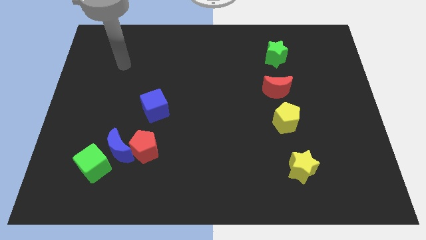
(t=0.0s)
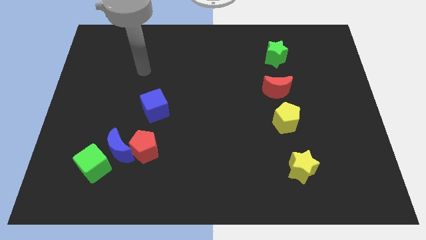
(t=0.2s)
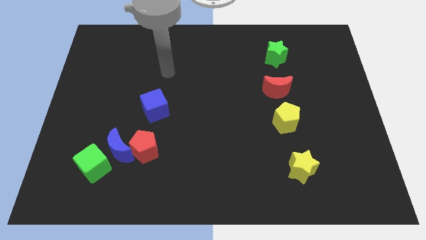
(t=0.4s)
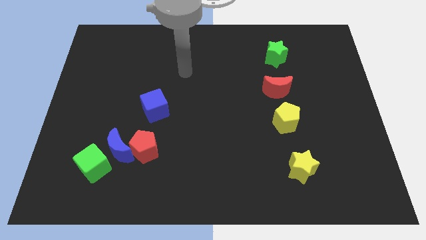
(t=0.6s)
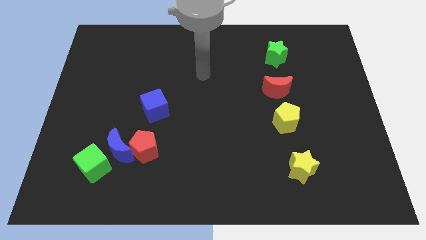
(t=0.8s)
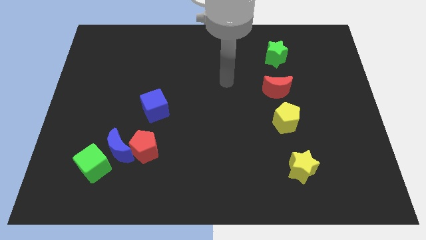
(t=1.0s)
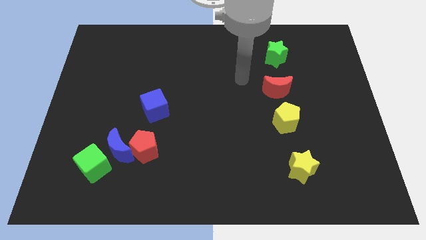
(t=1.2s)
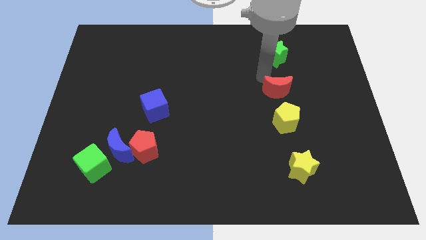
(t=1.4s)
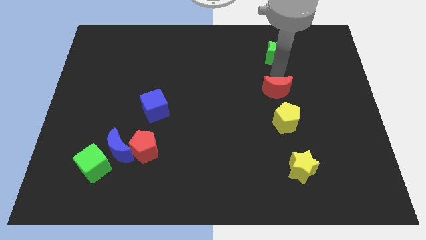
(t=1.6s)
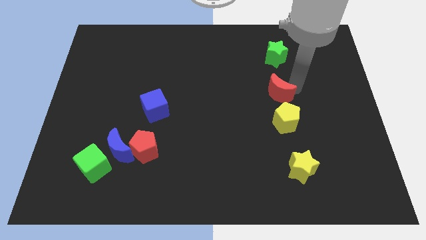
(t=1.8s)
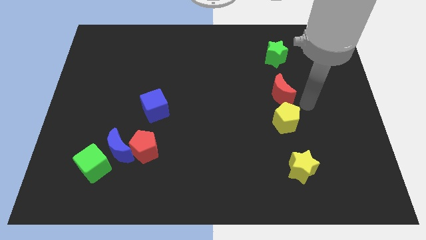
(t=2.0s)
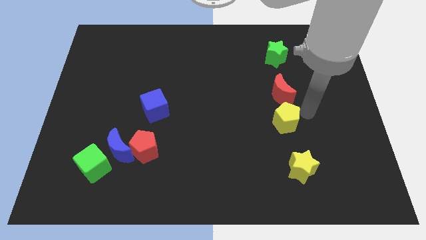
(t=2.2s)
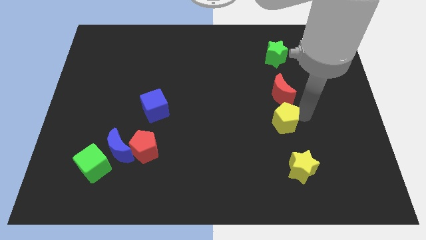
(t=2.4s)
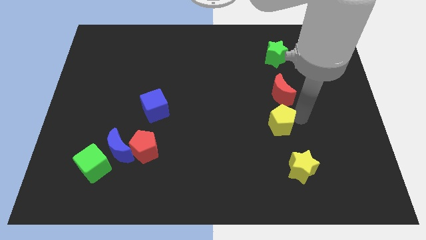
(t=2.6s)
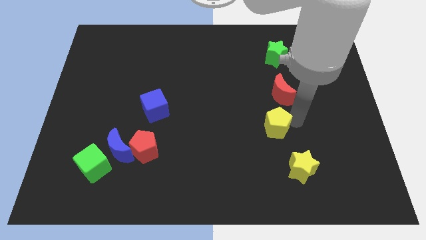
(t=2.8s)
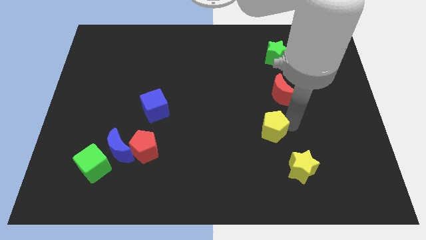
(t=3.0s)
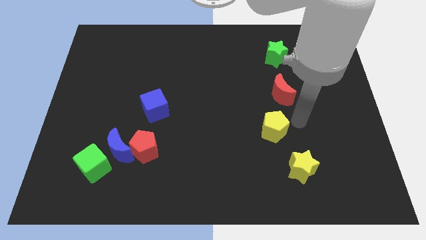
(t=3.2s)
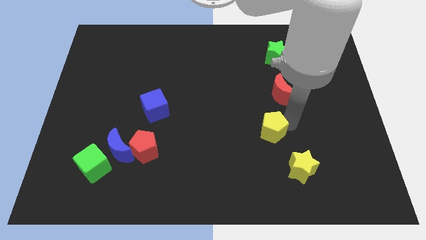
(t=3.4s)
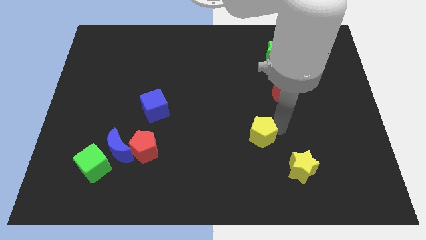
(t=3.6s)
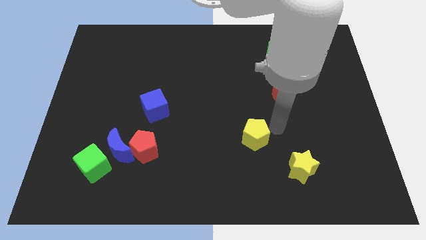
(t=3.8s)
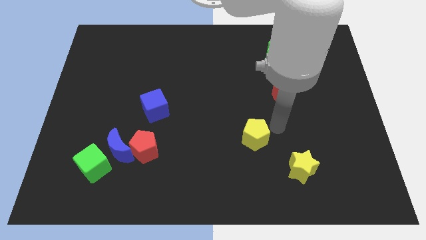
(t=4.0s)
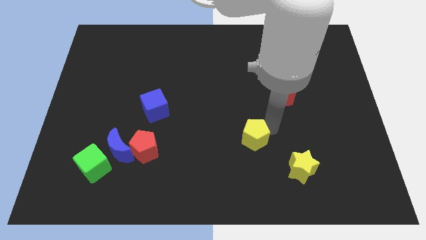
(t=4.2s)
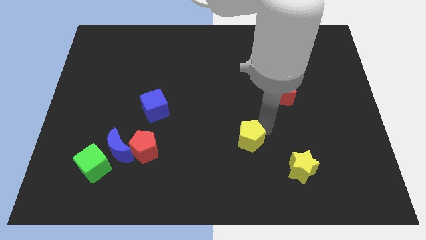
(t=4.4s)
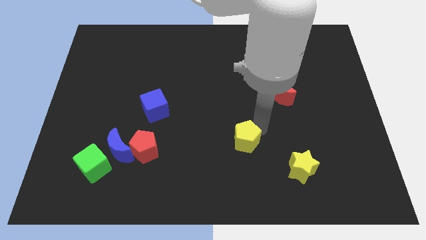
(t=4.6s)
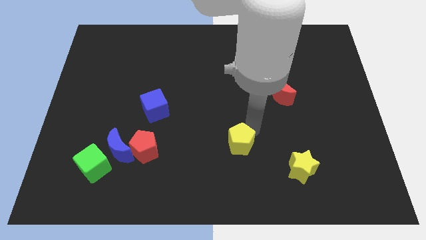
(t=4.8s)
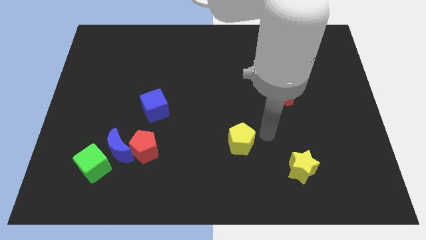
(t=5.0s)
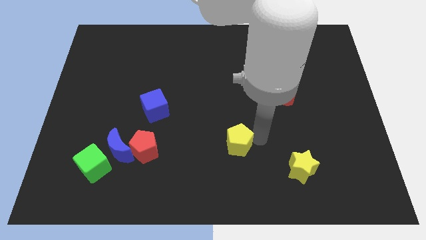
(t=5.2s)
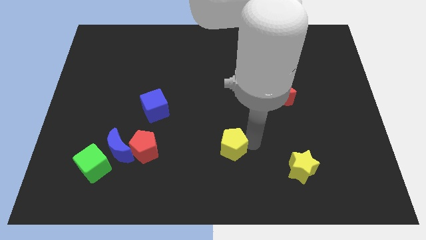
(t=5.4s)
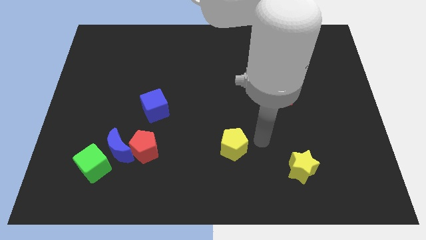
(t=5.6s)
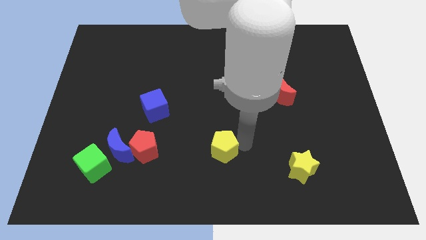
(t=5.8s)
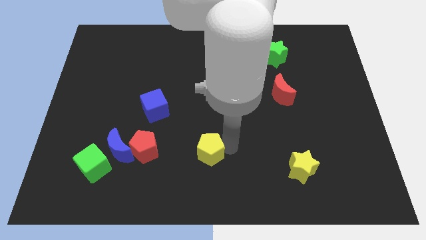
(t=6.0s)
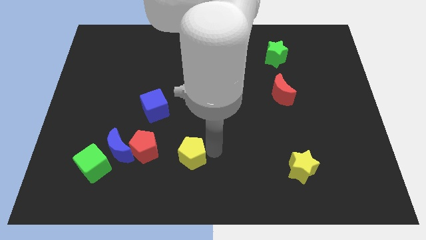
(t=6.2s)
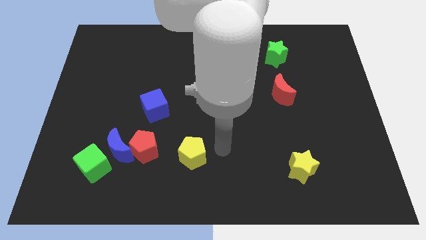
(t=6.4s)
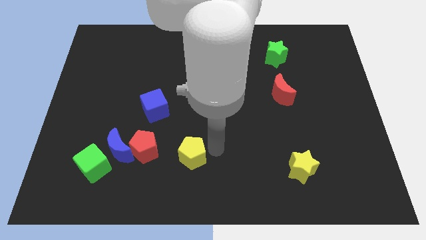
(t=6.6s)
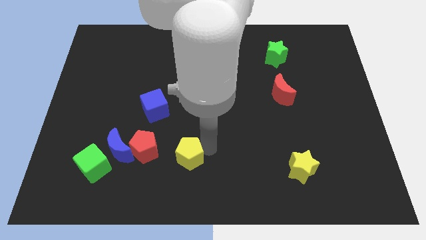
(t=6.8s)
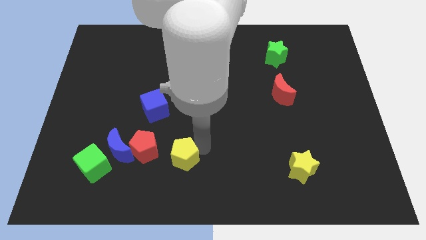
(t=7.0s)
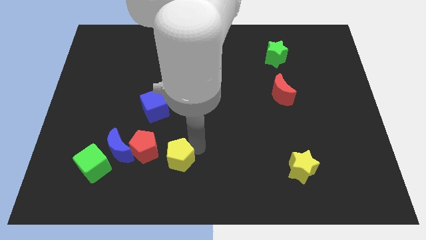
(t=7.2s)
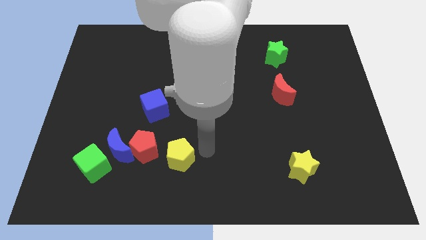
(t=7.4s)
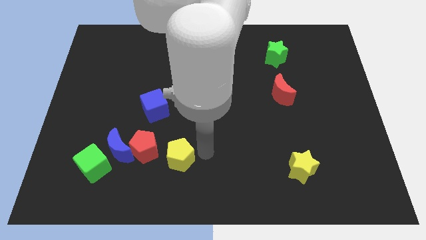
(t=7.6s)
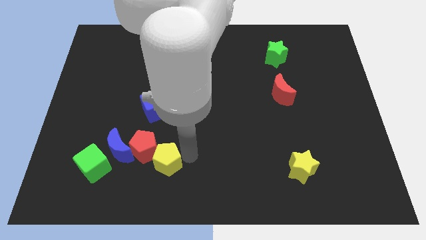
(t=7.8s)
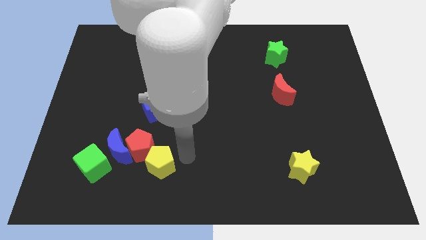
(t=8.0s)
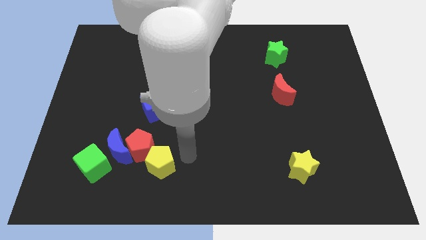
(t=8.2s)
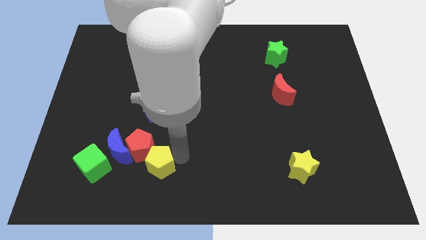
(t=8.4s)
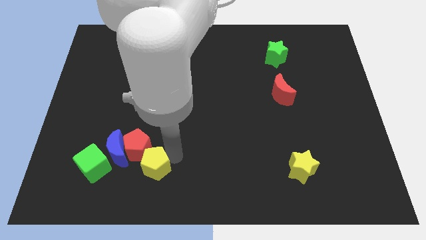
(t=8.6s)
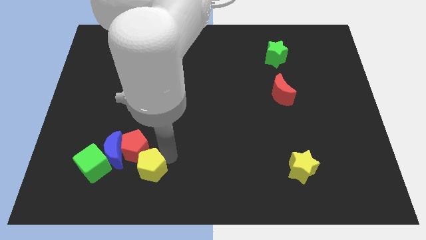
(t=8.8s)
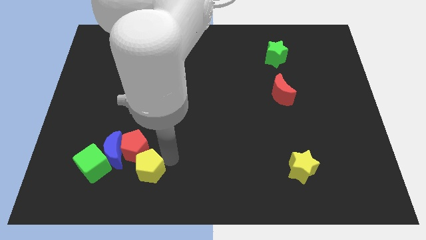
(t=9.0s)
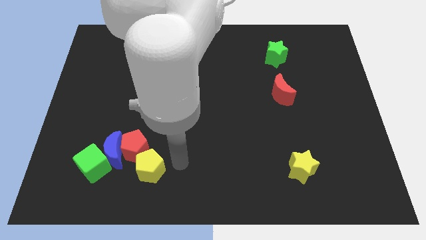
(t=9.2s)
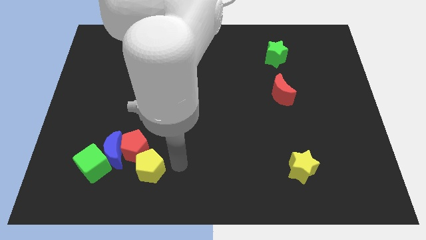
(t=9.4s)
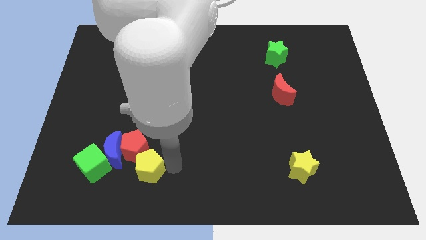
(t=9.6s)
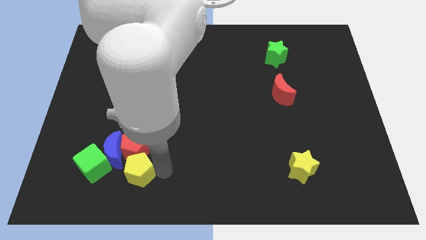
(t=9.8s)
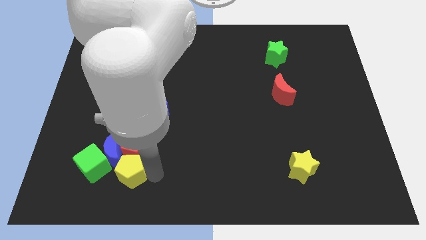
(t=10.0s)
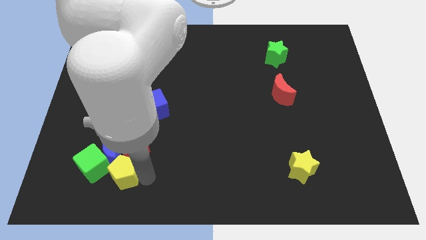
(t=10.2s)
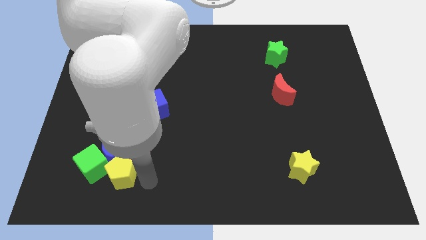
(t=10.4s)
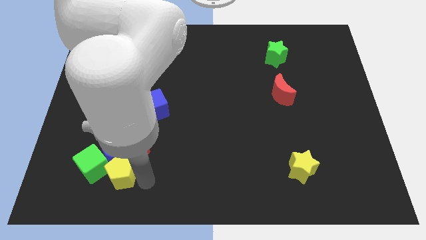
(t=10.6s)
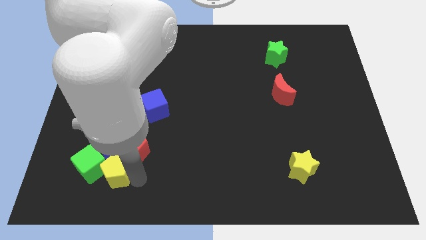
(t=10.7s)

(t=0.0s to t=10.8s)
slide the yellow pentagon close to the green cube

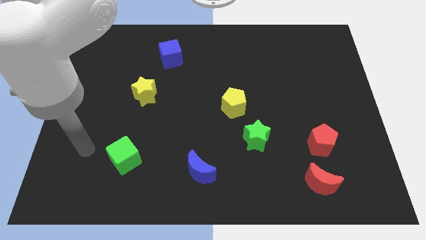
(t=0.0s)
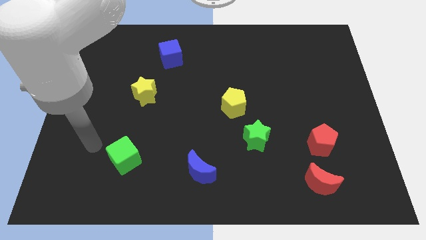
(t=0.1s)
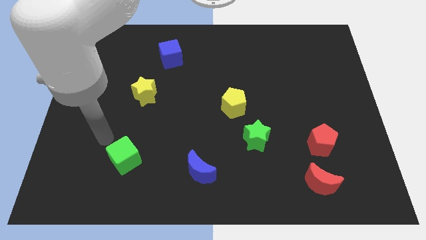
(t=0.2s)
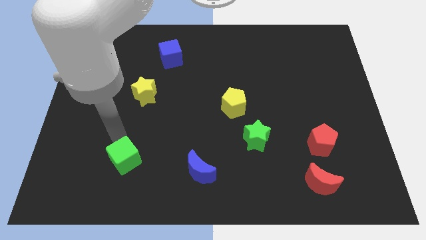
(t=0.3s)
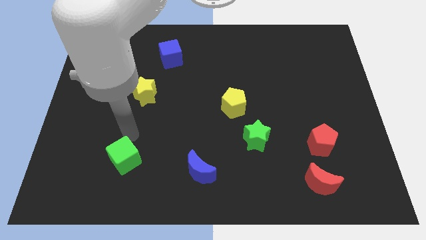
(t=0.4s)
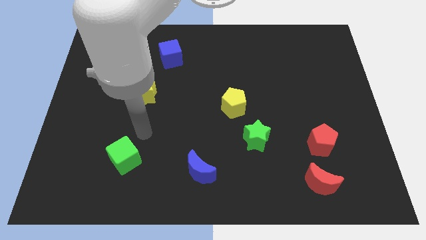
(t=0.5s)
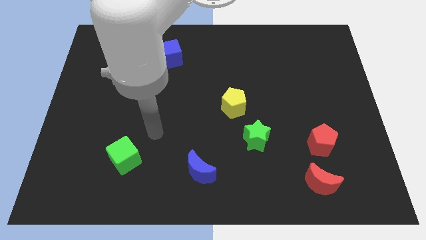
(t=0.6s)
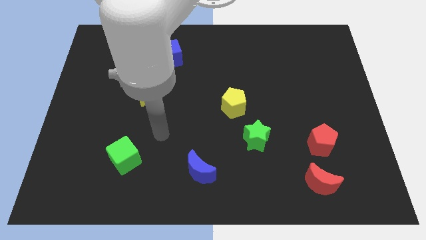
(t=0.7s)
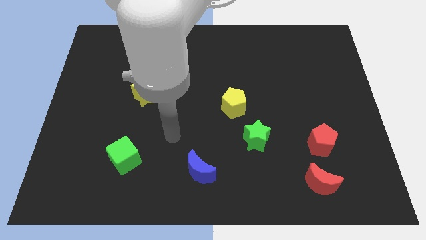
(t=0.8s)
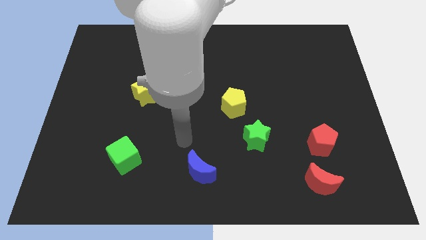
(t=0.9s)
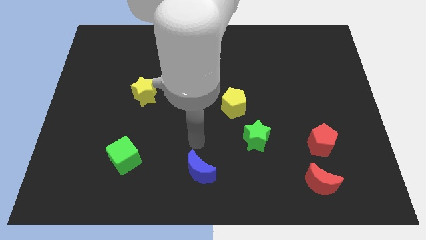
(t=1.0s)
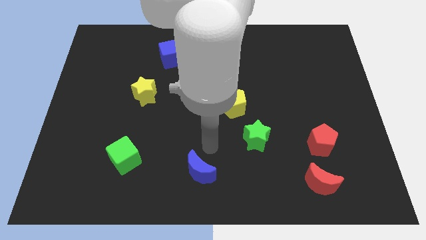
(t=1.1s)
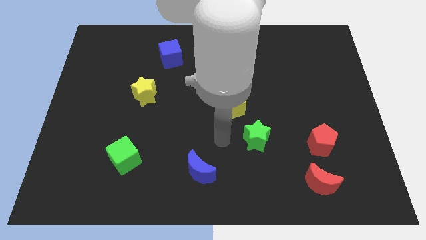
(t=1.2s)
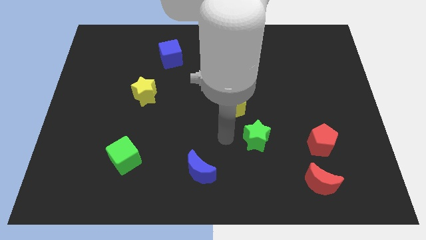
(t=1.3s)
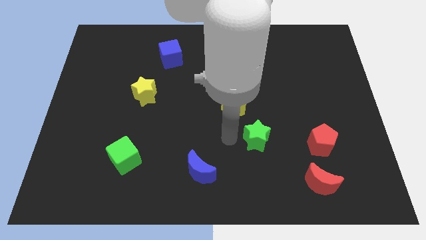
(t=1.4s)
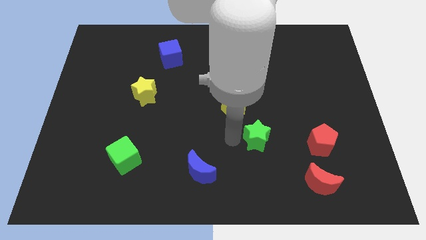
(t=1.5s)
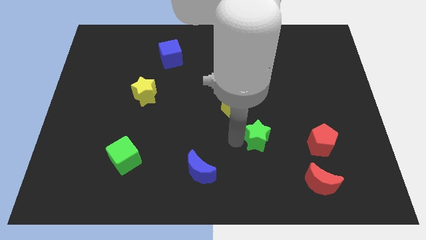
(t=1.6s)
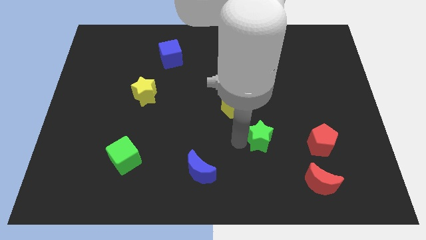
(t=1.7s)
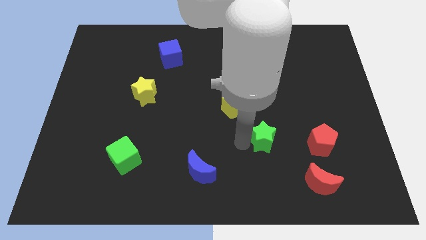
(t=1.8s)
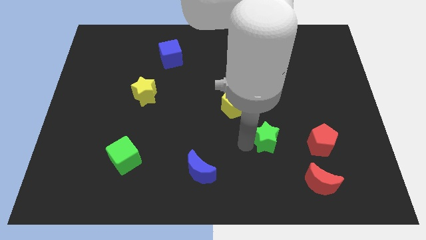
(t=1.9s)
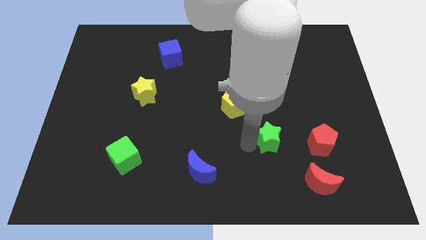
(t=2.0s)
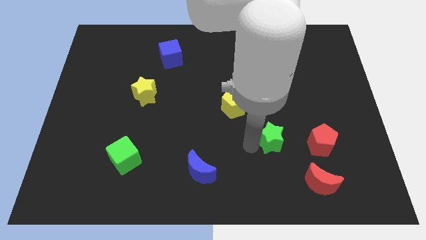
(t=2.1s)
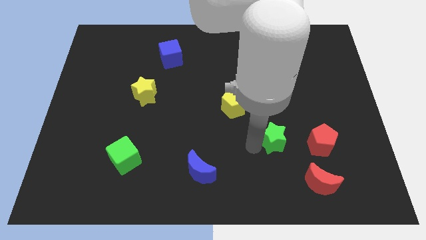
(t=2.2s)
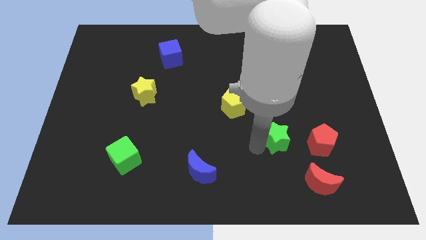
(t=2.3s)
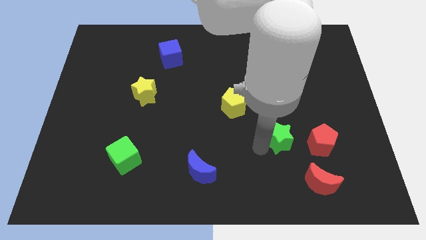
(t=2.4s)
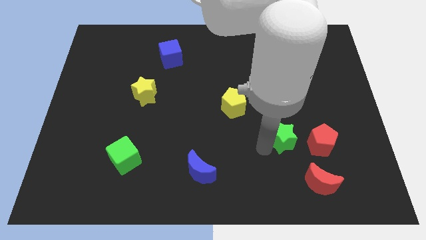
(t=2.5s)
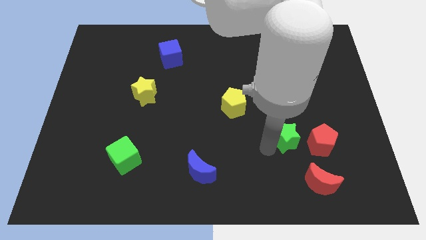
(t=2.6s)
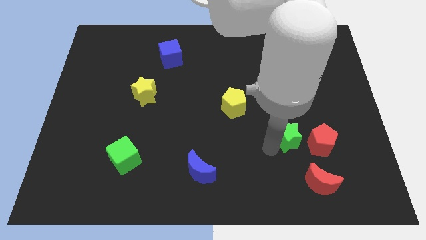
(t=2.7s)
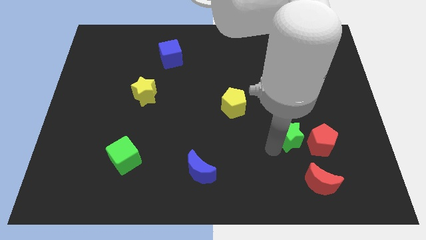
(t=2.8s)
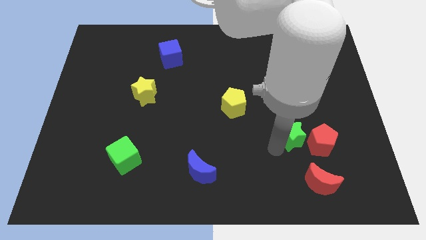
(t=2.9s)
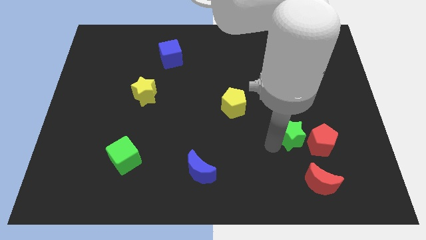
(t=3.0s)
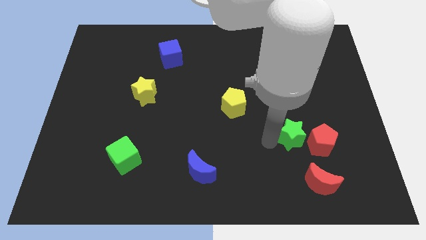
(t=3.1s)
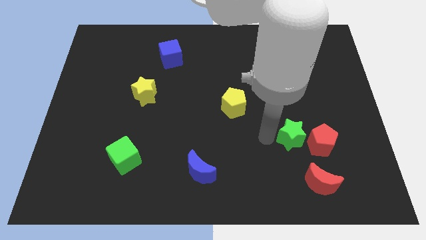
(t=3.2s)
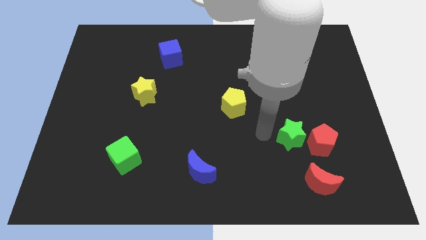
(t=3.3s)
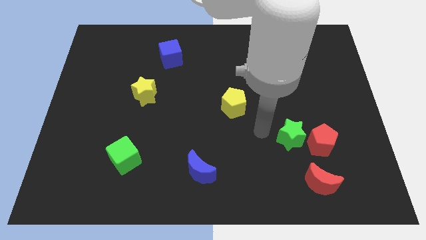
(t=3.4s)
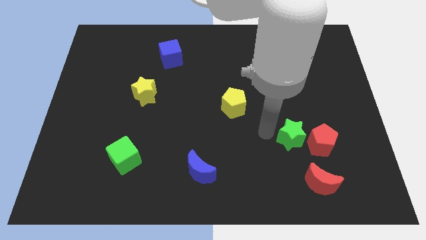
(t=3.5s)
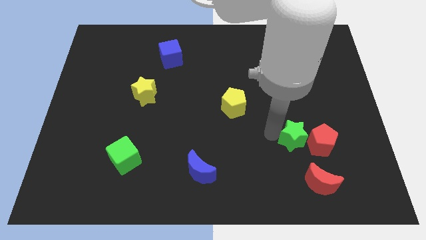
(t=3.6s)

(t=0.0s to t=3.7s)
move the green star close to the red pentagon
